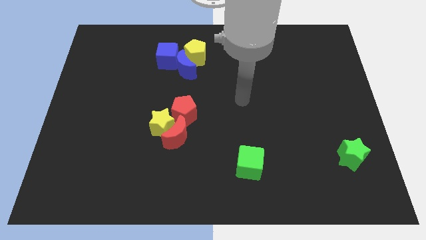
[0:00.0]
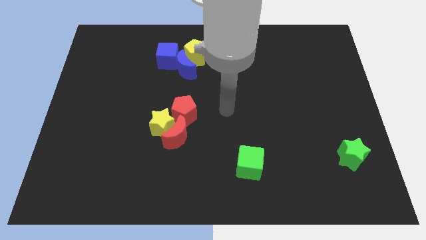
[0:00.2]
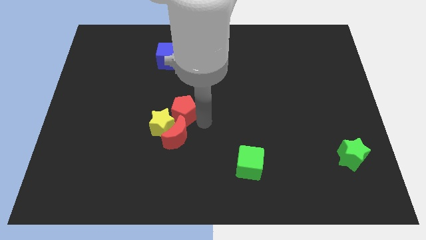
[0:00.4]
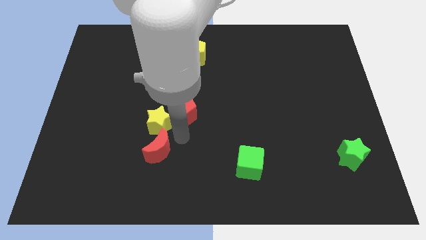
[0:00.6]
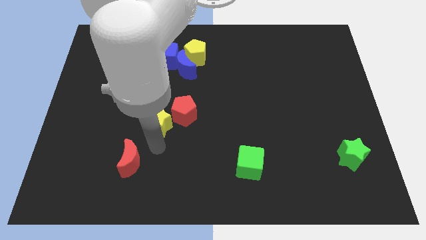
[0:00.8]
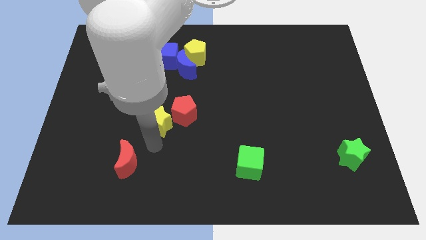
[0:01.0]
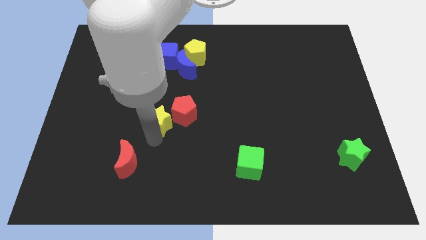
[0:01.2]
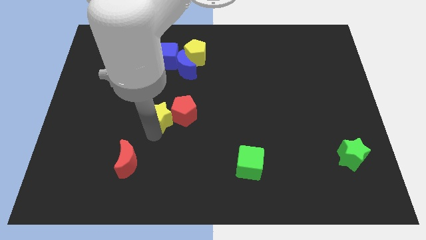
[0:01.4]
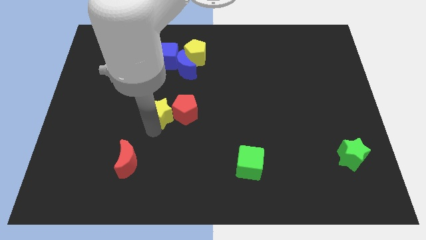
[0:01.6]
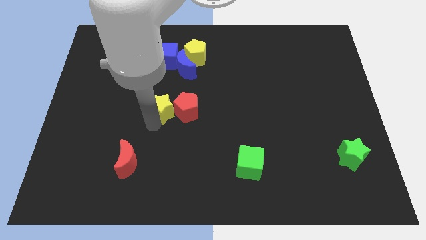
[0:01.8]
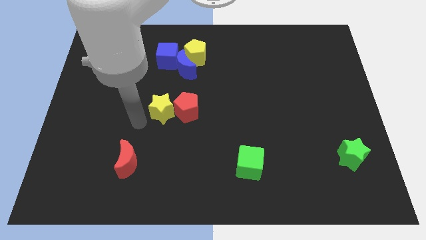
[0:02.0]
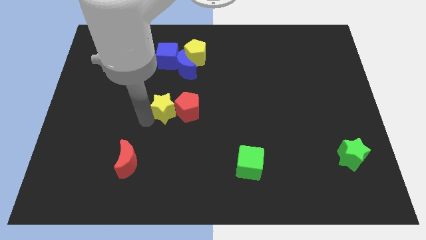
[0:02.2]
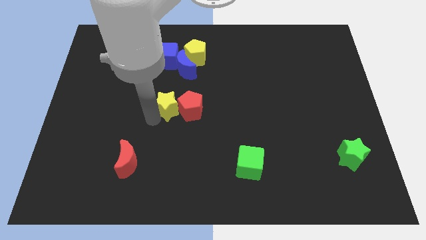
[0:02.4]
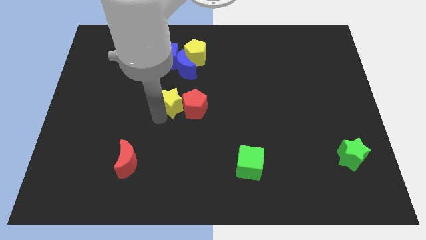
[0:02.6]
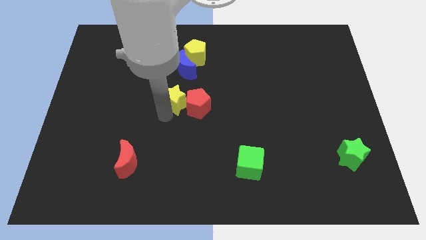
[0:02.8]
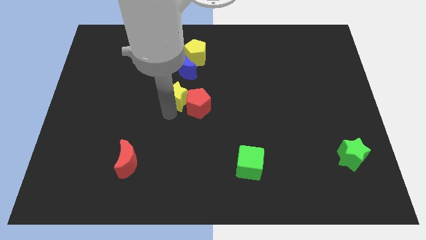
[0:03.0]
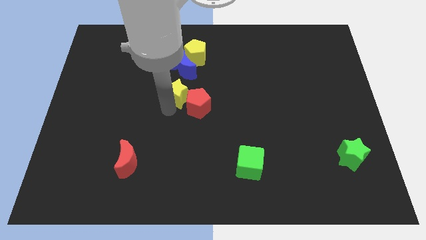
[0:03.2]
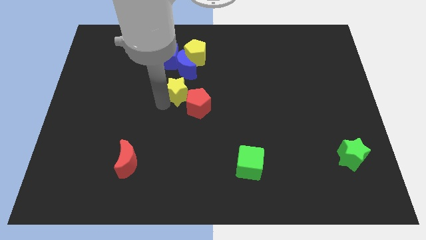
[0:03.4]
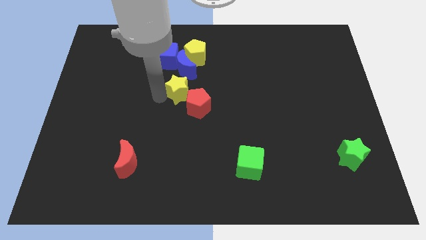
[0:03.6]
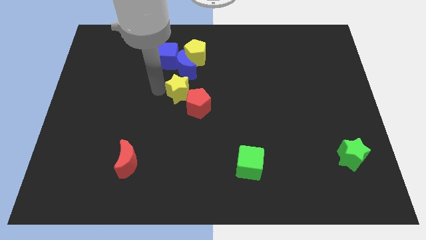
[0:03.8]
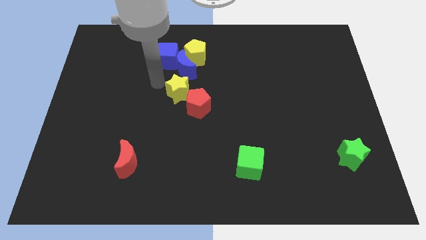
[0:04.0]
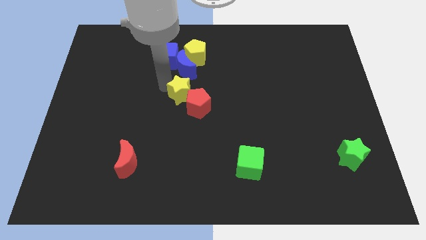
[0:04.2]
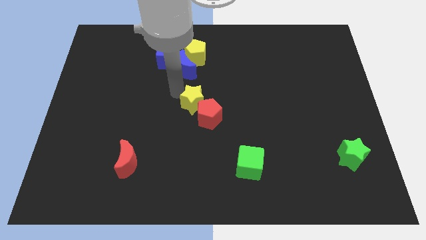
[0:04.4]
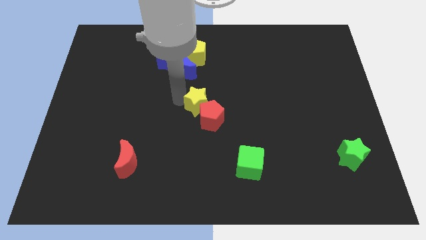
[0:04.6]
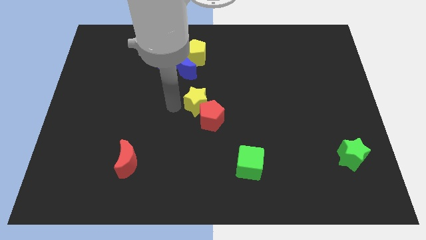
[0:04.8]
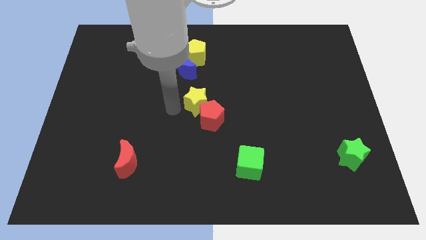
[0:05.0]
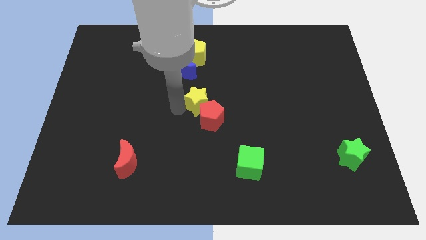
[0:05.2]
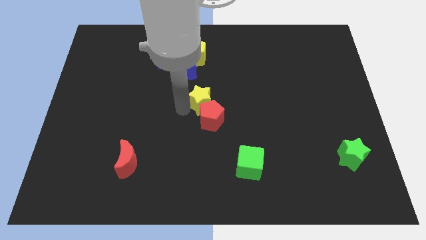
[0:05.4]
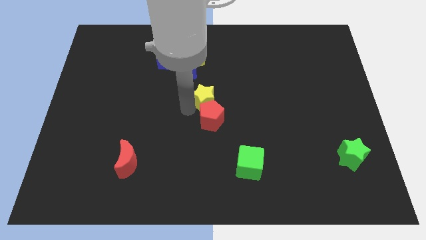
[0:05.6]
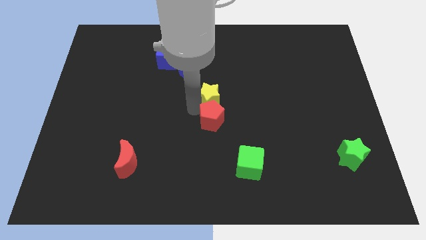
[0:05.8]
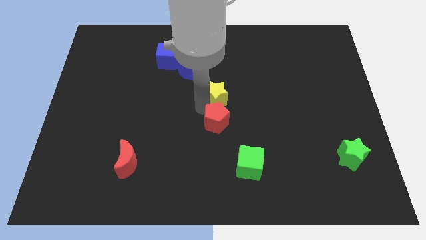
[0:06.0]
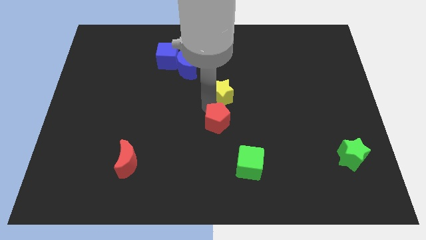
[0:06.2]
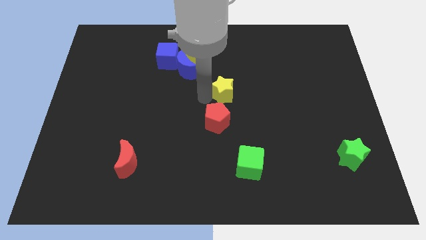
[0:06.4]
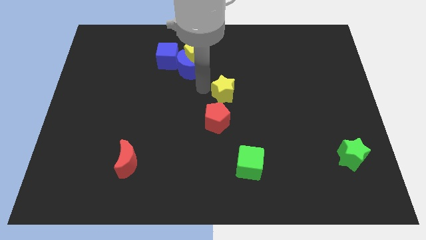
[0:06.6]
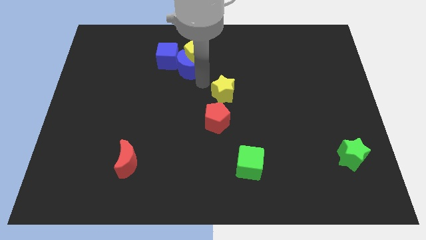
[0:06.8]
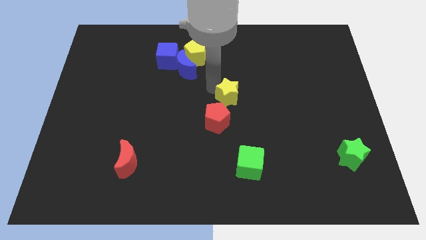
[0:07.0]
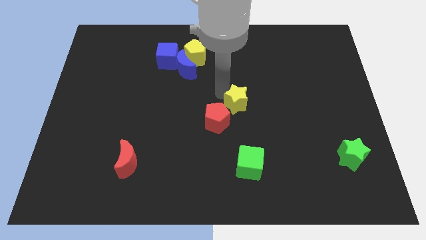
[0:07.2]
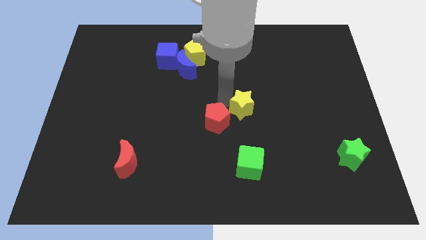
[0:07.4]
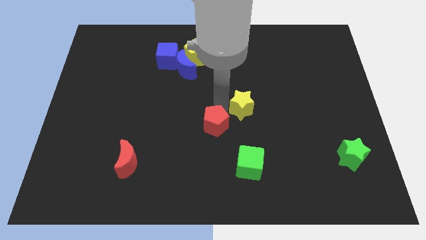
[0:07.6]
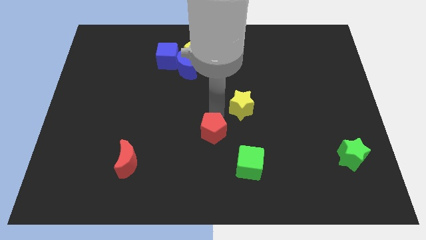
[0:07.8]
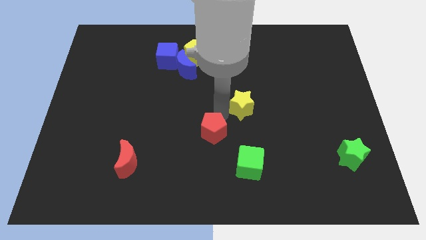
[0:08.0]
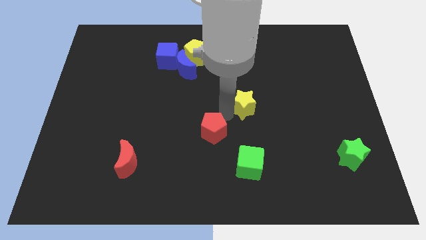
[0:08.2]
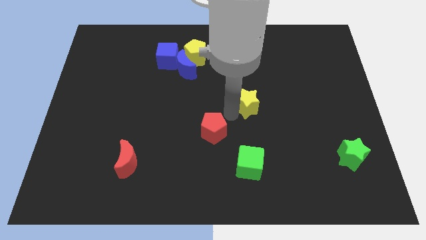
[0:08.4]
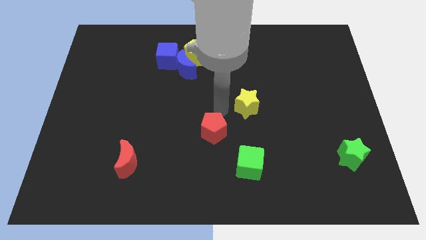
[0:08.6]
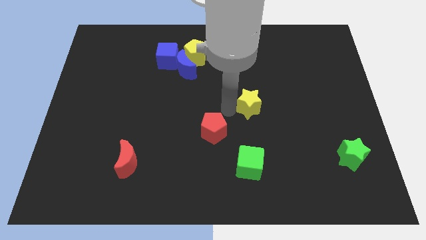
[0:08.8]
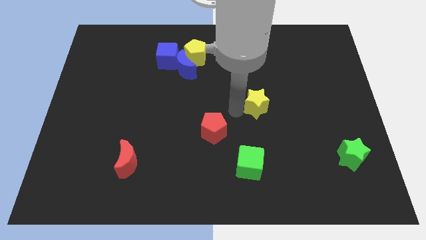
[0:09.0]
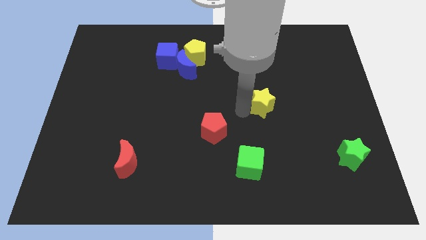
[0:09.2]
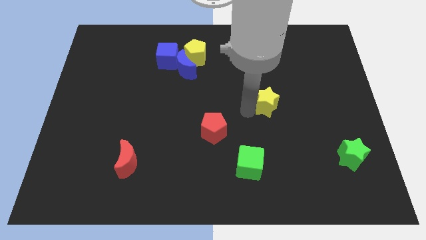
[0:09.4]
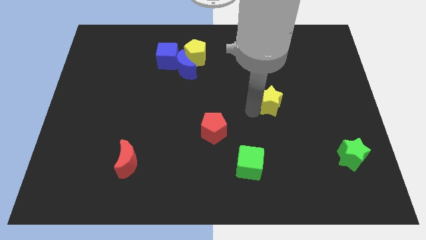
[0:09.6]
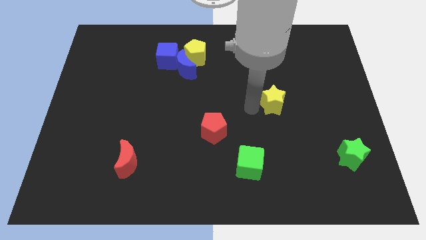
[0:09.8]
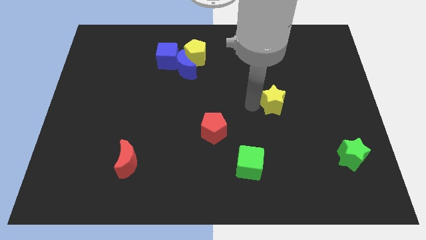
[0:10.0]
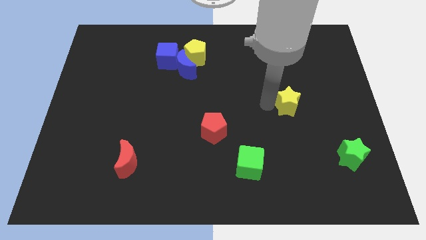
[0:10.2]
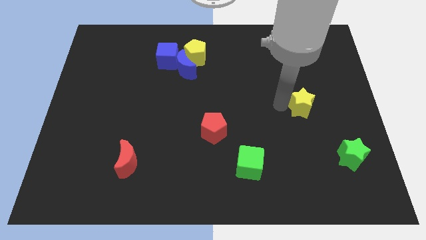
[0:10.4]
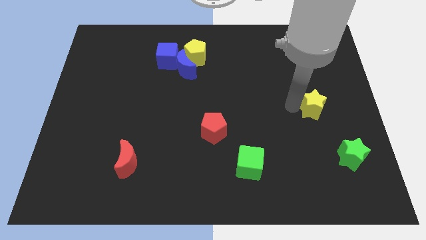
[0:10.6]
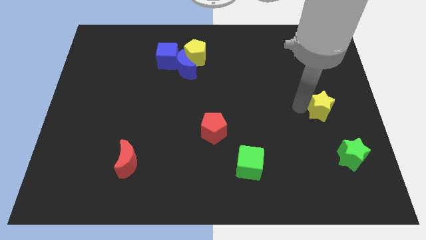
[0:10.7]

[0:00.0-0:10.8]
slide the yellow star to the center right
